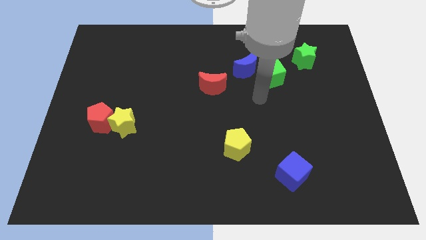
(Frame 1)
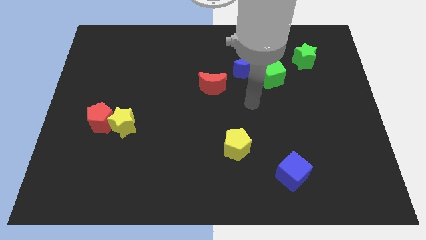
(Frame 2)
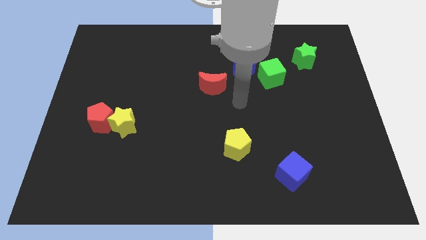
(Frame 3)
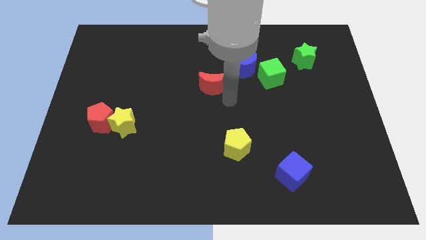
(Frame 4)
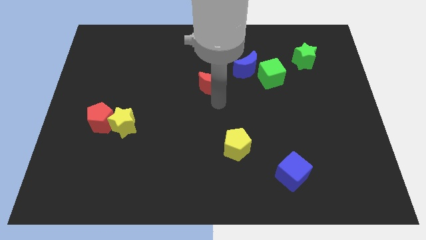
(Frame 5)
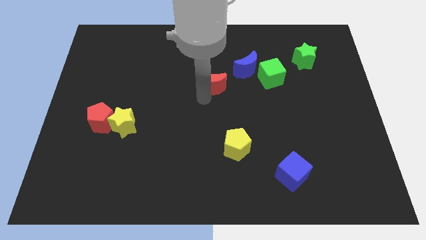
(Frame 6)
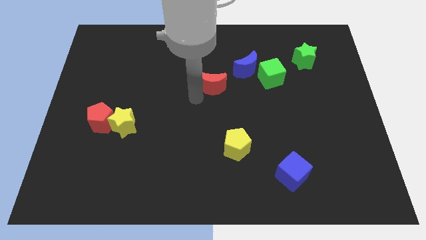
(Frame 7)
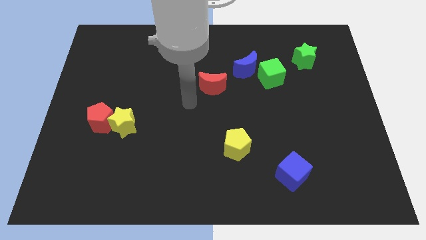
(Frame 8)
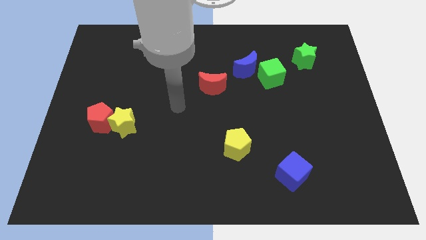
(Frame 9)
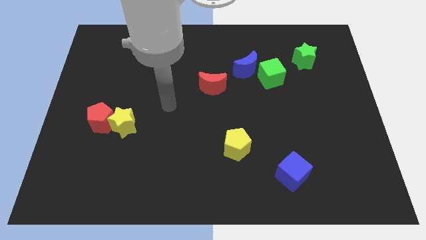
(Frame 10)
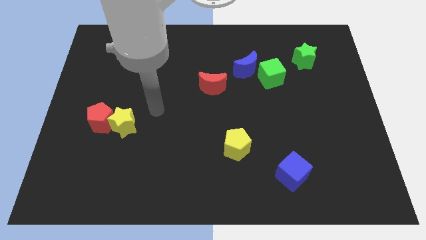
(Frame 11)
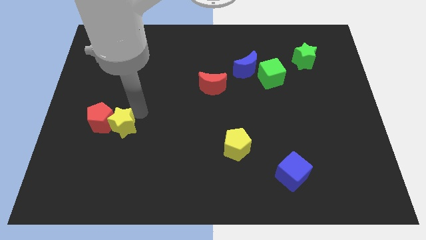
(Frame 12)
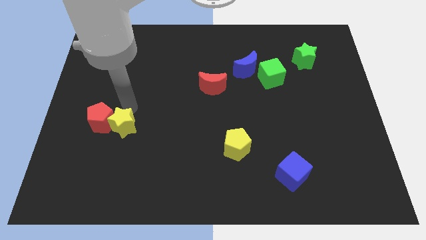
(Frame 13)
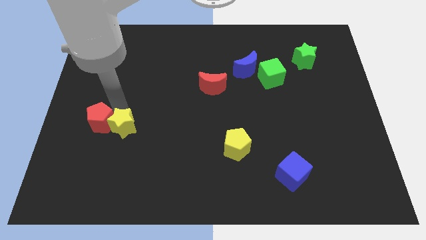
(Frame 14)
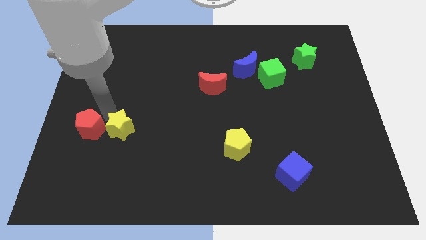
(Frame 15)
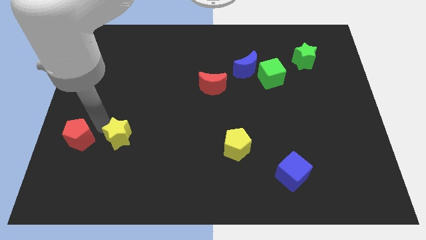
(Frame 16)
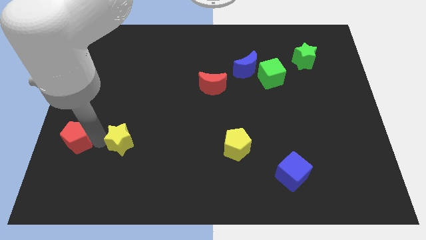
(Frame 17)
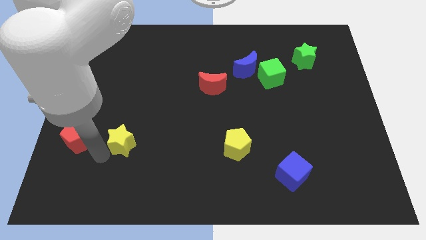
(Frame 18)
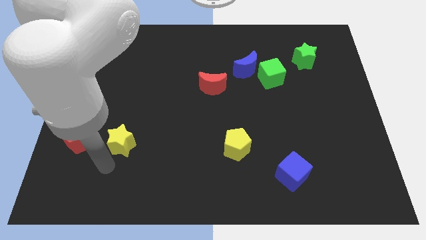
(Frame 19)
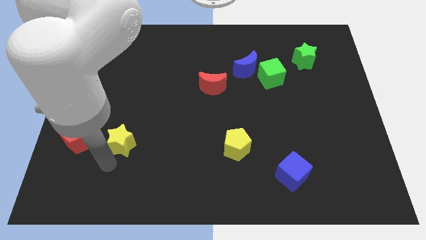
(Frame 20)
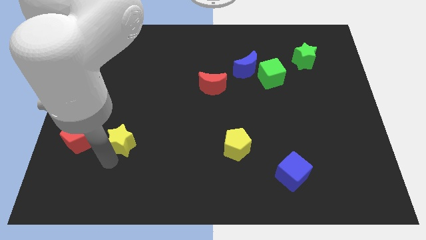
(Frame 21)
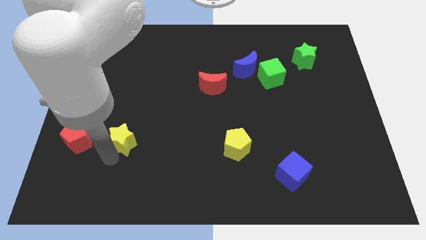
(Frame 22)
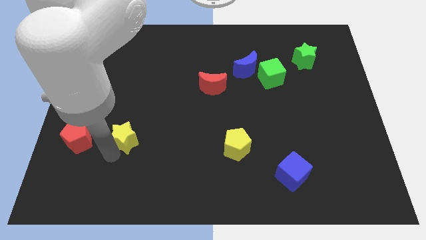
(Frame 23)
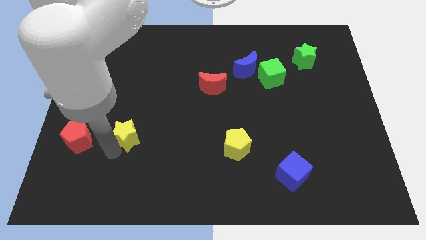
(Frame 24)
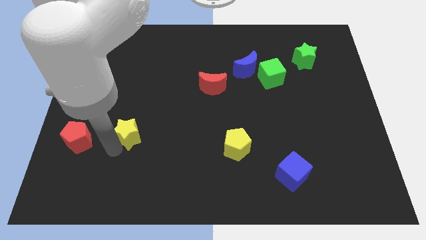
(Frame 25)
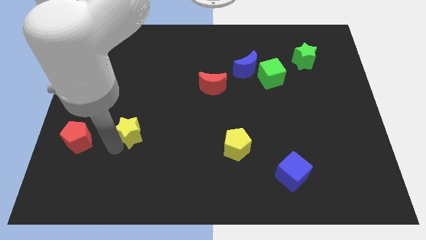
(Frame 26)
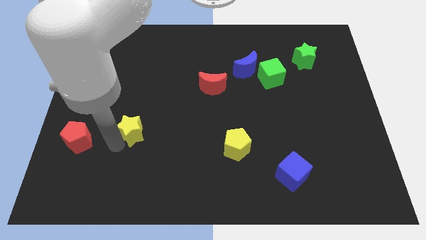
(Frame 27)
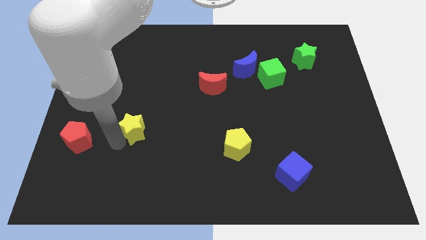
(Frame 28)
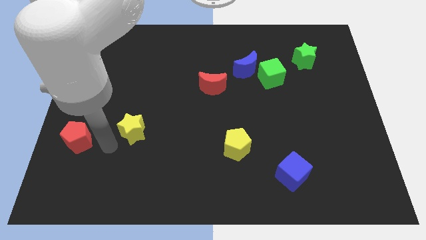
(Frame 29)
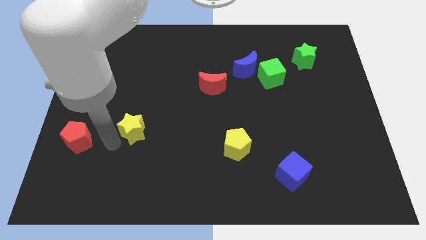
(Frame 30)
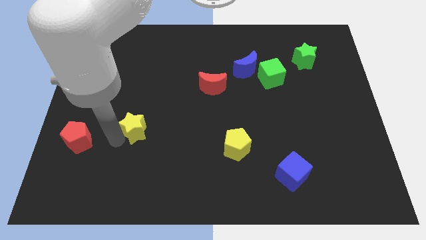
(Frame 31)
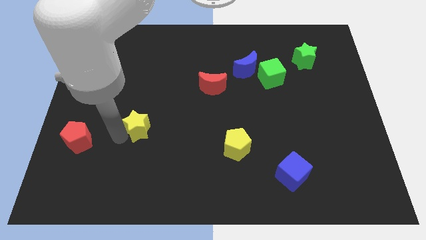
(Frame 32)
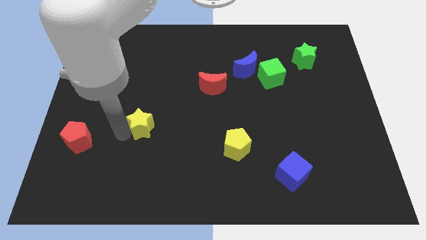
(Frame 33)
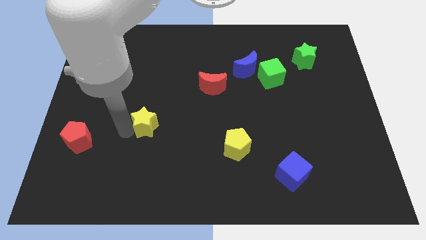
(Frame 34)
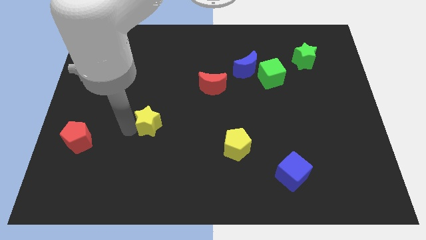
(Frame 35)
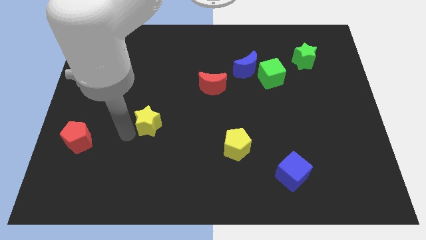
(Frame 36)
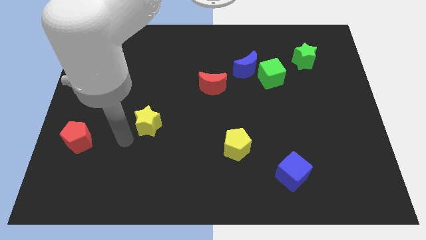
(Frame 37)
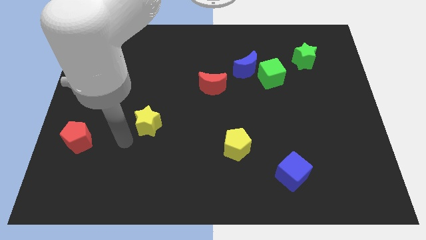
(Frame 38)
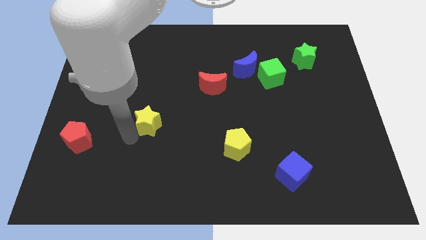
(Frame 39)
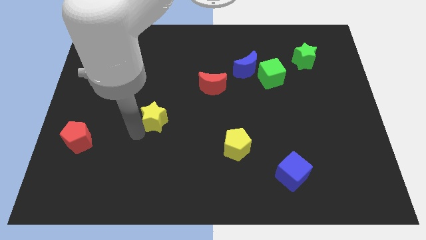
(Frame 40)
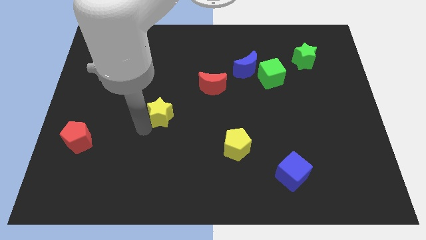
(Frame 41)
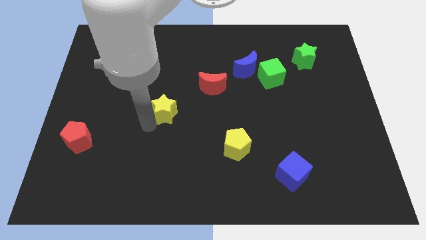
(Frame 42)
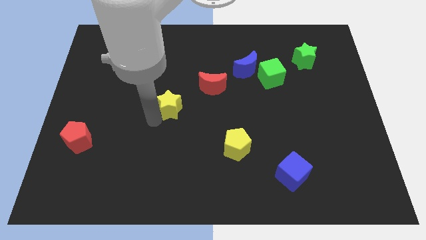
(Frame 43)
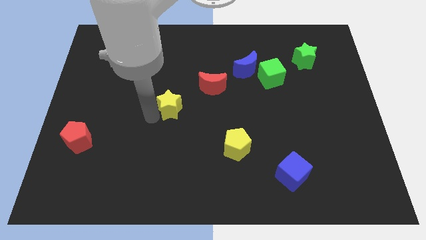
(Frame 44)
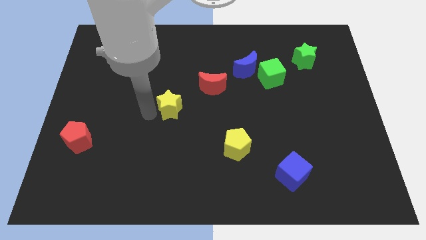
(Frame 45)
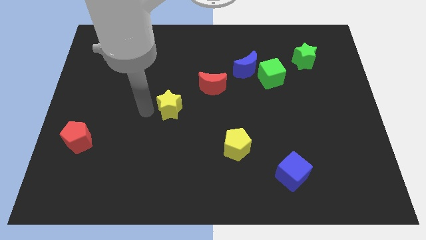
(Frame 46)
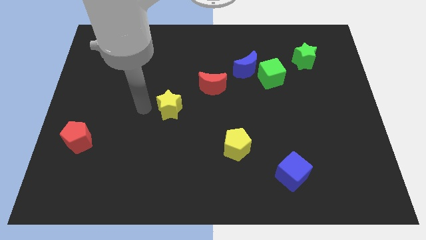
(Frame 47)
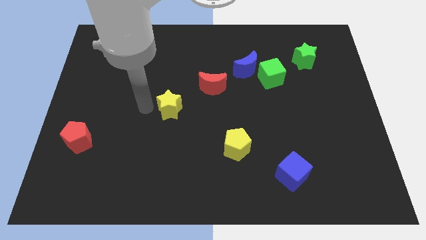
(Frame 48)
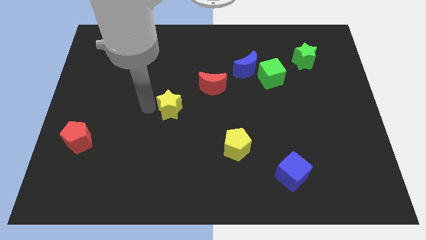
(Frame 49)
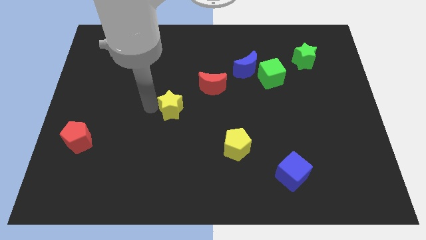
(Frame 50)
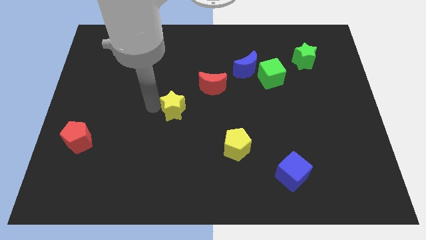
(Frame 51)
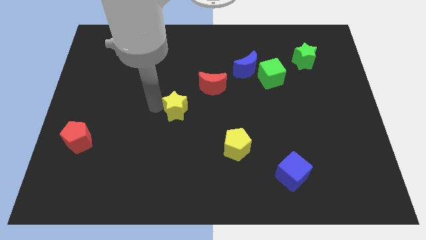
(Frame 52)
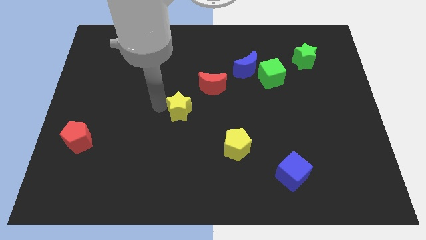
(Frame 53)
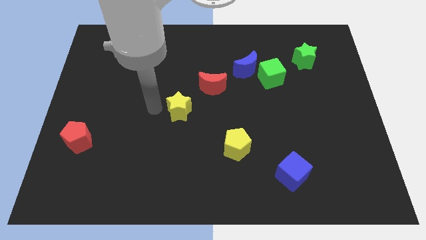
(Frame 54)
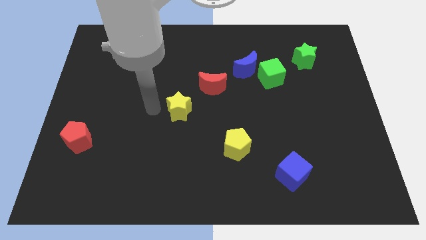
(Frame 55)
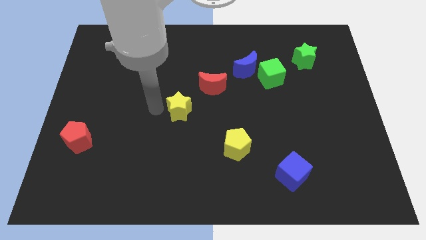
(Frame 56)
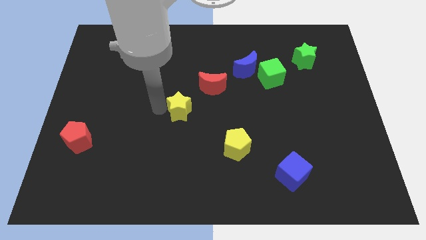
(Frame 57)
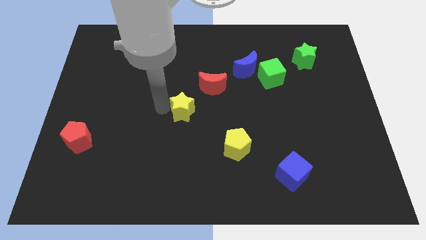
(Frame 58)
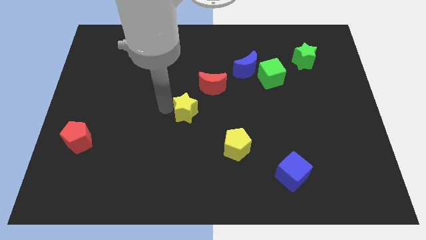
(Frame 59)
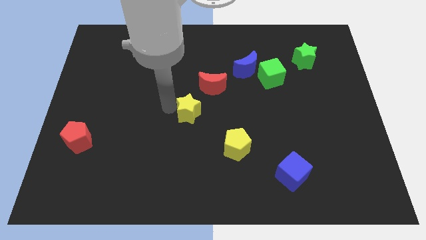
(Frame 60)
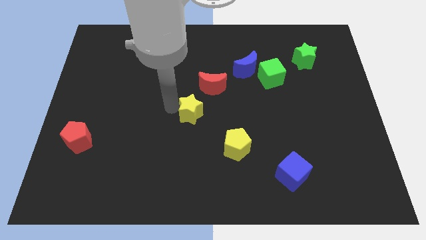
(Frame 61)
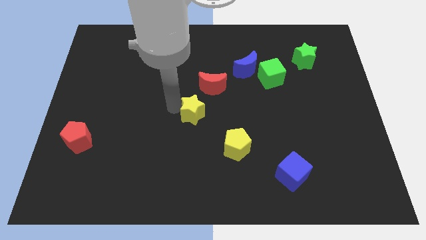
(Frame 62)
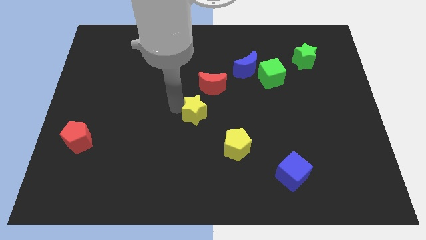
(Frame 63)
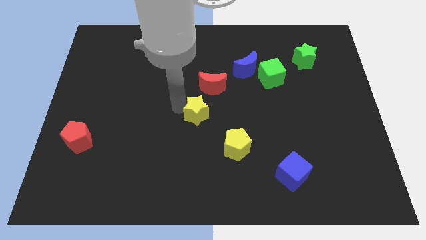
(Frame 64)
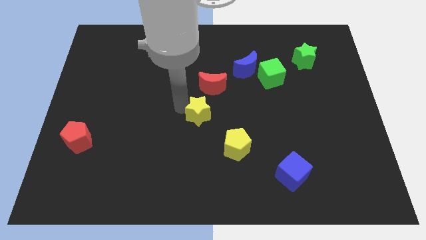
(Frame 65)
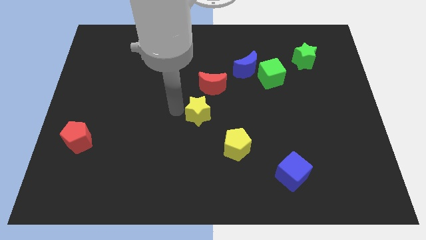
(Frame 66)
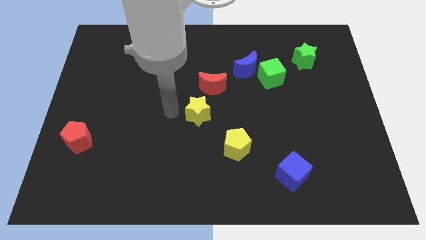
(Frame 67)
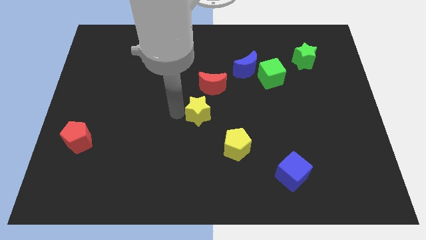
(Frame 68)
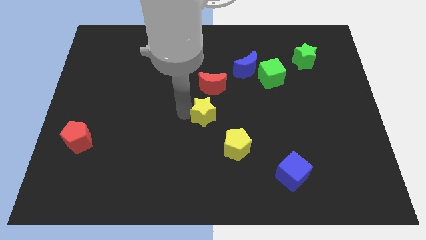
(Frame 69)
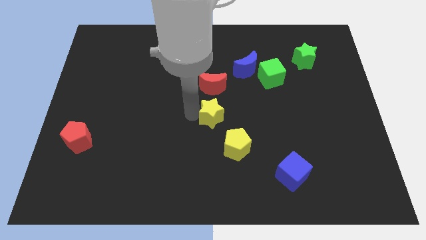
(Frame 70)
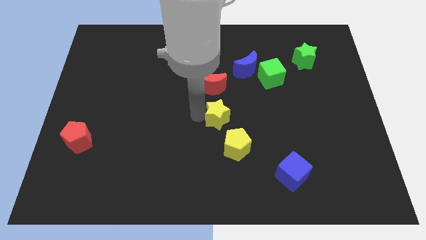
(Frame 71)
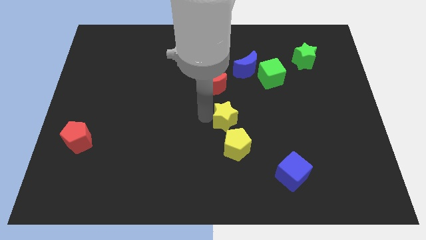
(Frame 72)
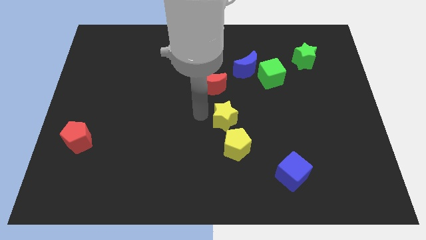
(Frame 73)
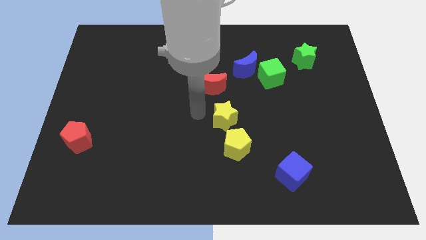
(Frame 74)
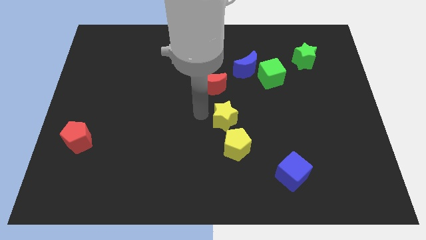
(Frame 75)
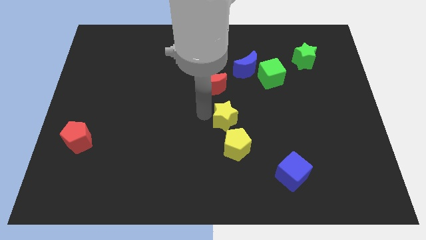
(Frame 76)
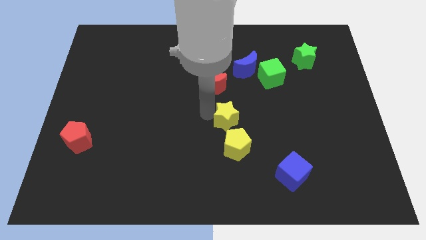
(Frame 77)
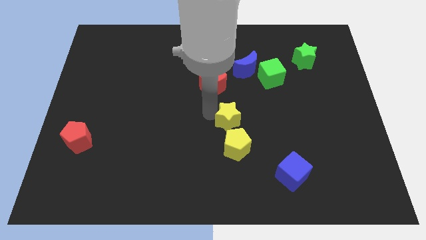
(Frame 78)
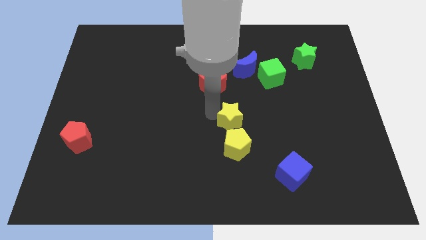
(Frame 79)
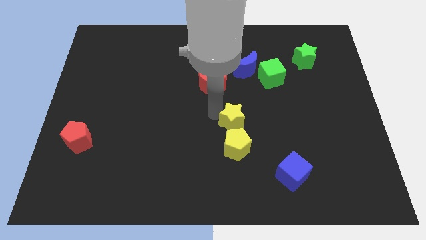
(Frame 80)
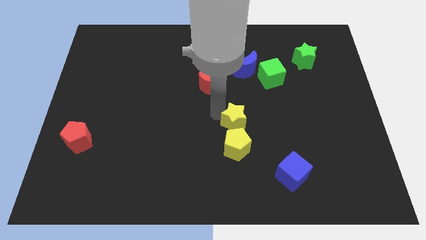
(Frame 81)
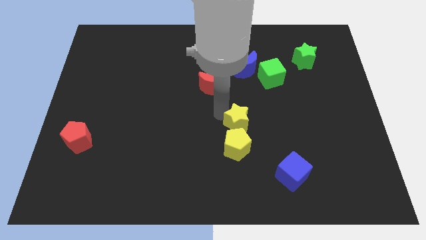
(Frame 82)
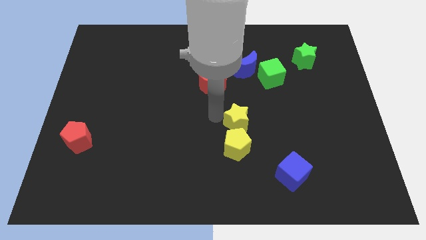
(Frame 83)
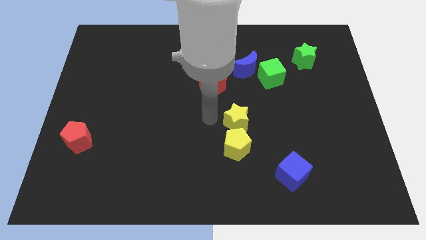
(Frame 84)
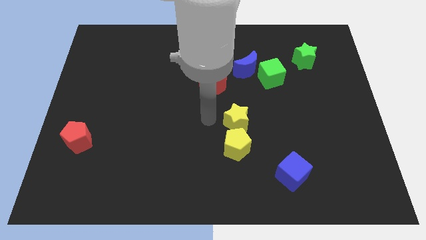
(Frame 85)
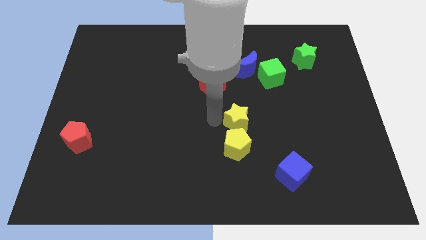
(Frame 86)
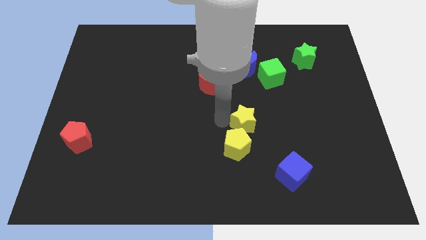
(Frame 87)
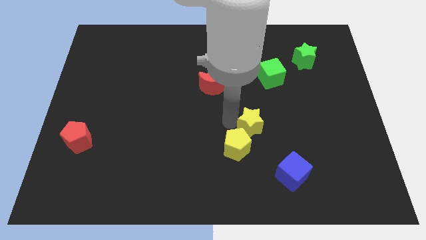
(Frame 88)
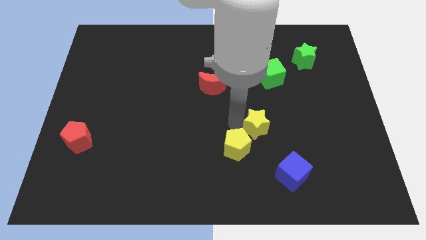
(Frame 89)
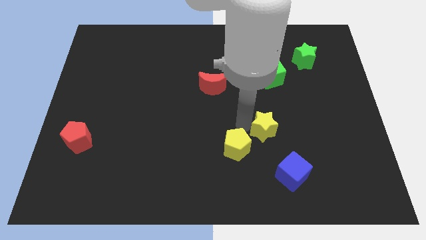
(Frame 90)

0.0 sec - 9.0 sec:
move the yellow star to the top of the blue cube
